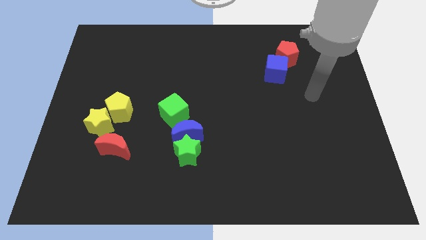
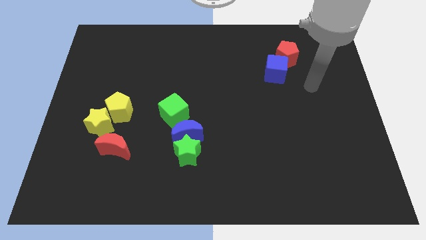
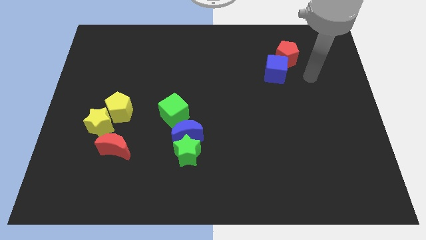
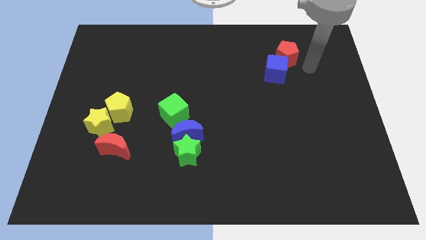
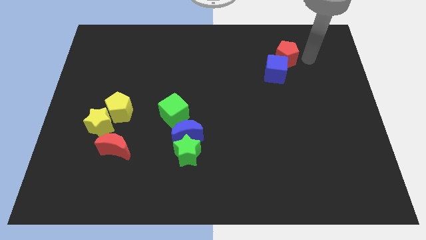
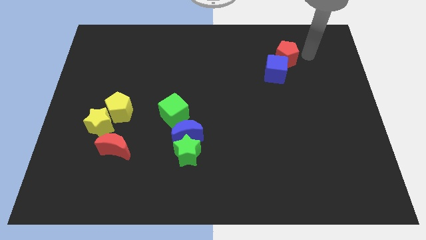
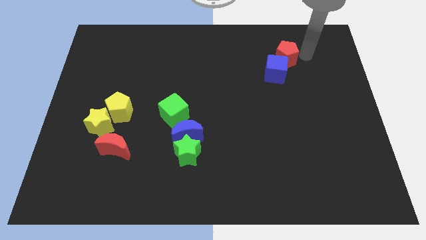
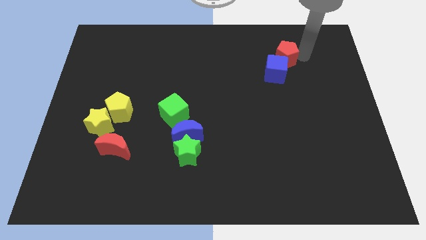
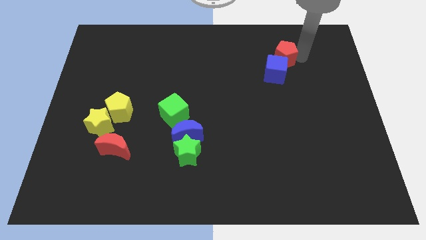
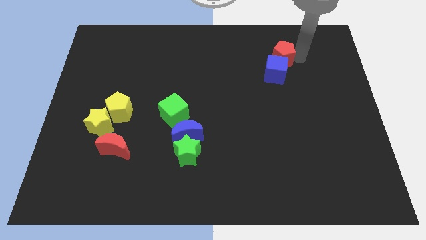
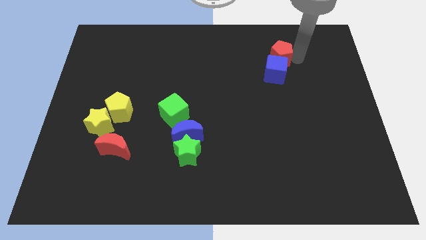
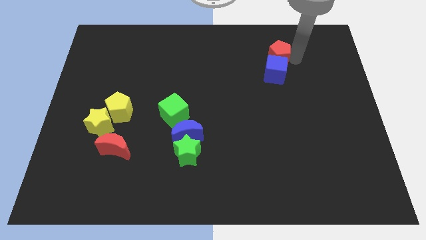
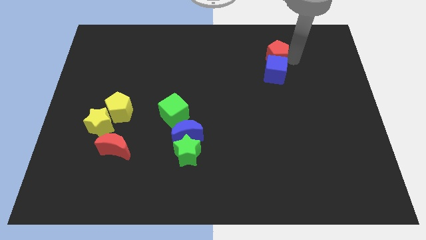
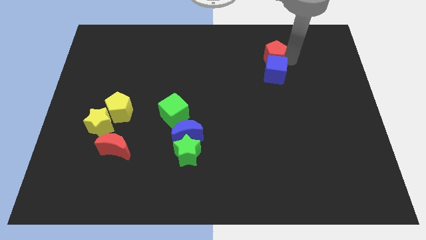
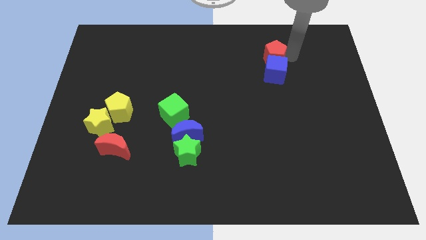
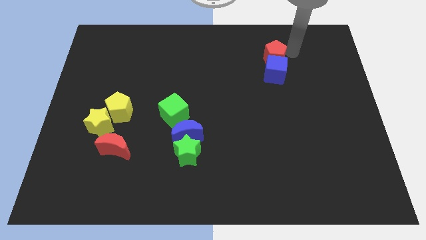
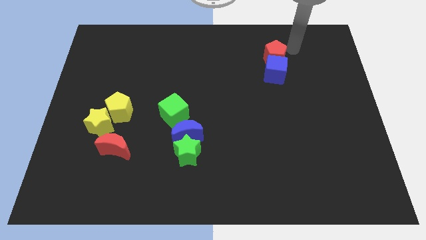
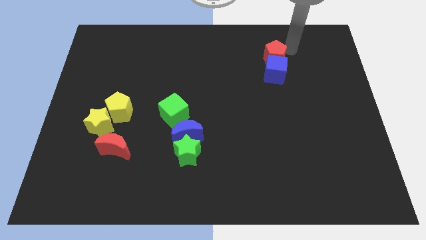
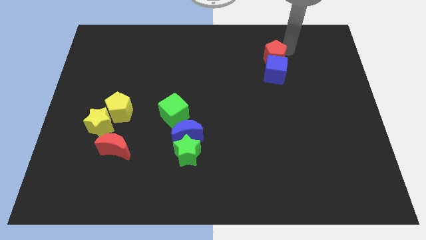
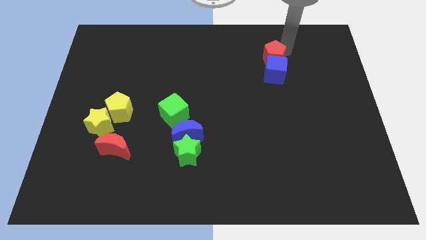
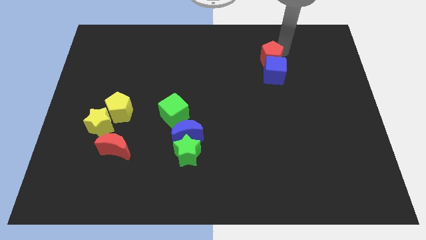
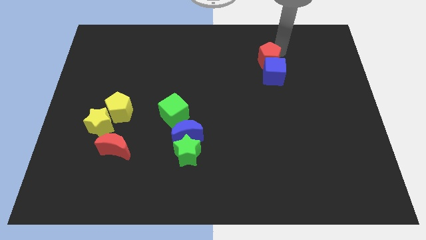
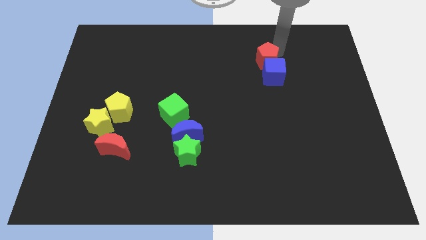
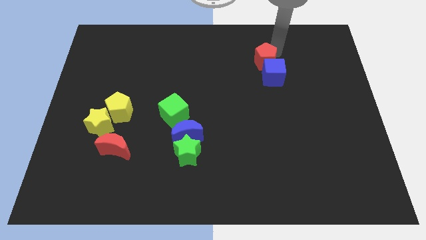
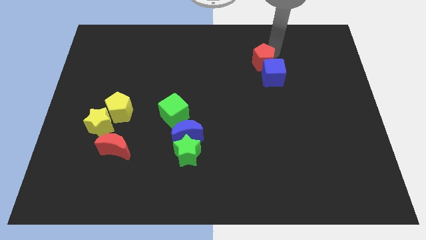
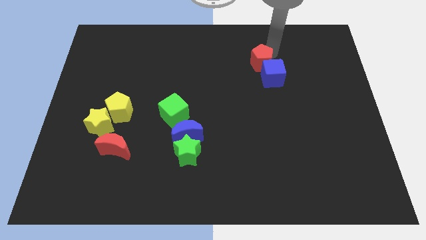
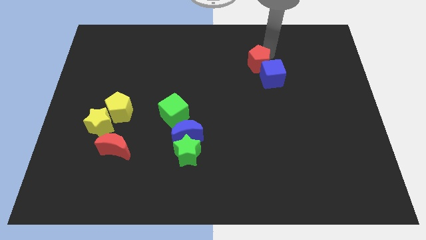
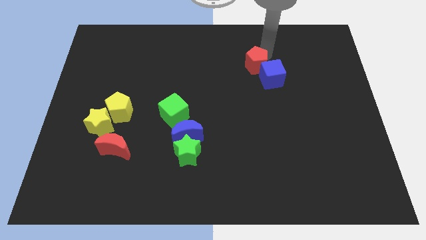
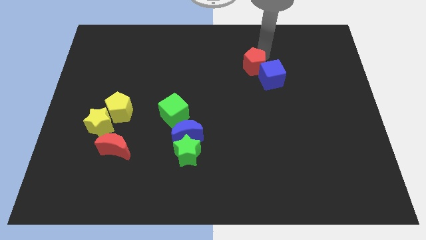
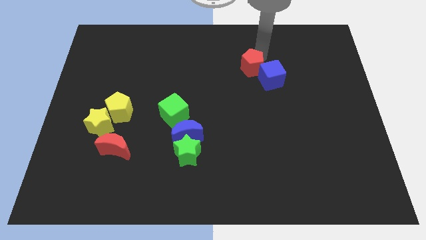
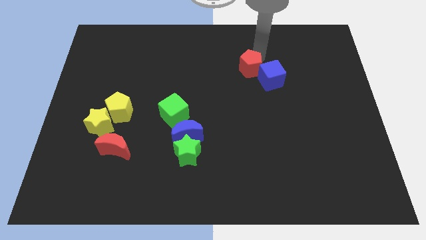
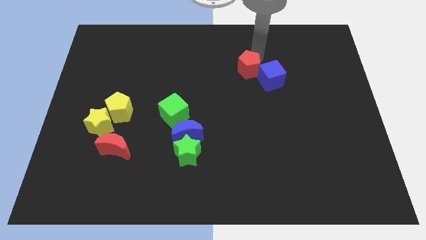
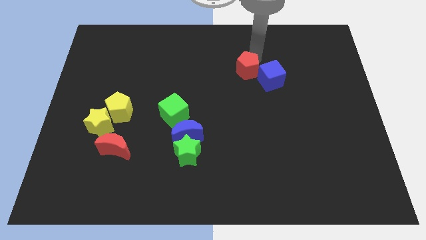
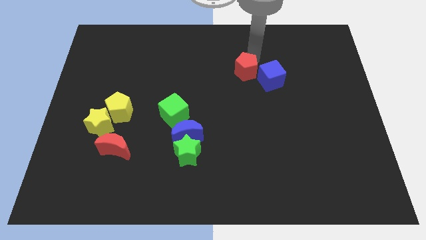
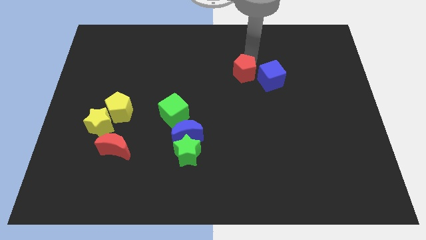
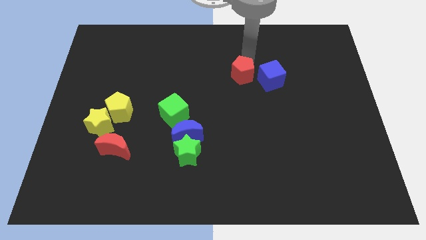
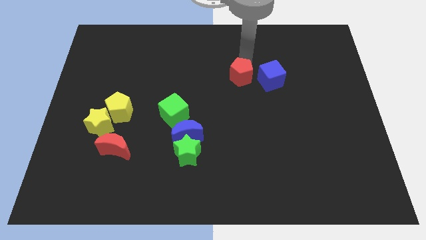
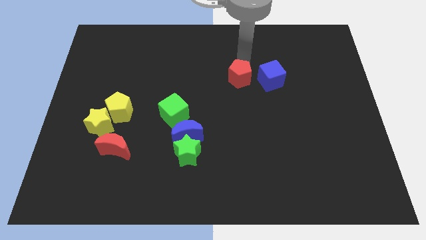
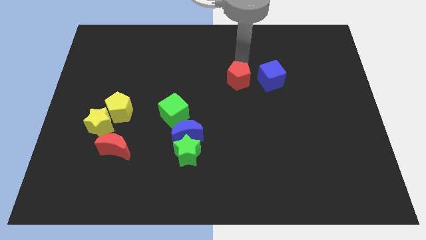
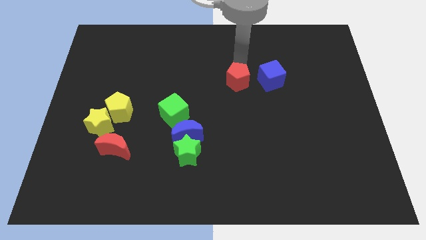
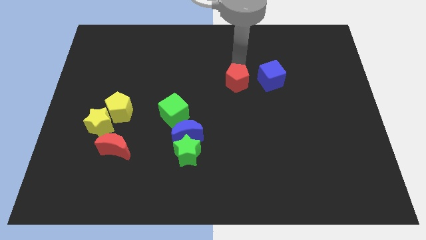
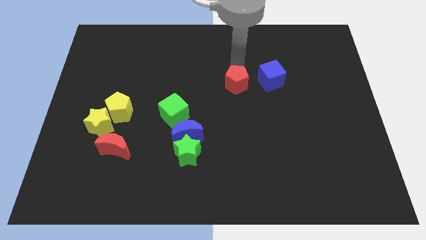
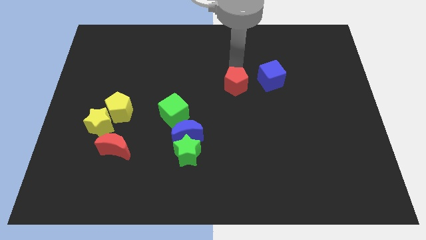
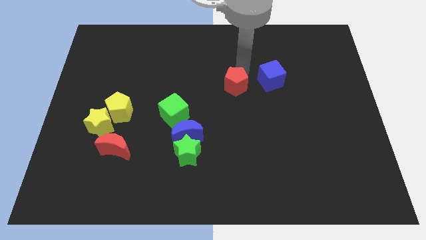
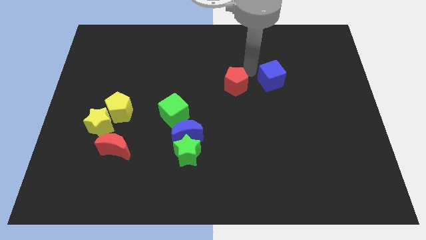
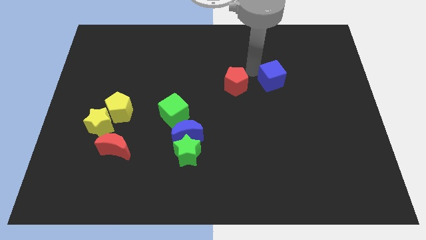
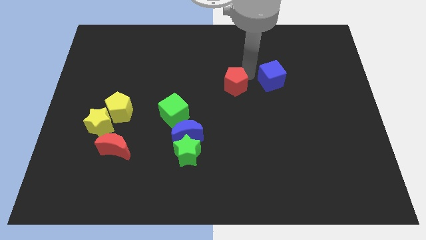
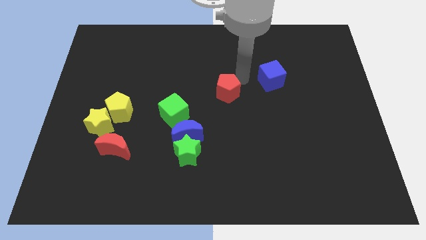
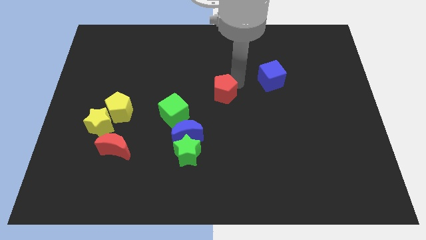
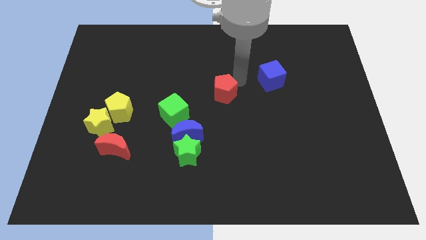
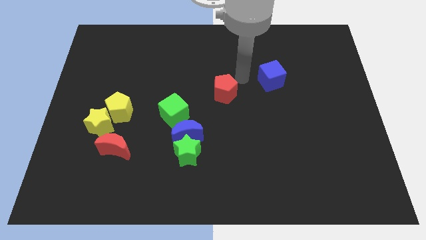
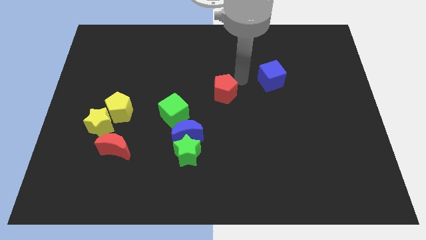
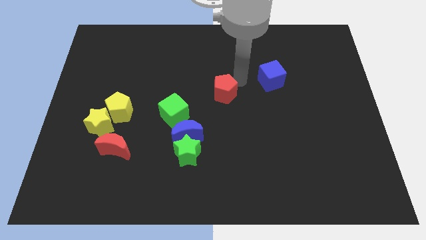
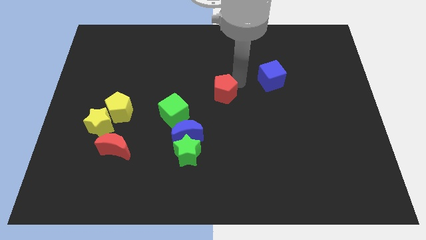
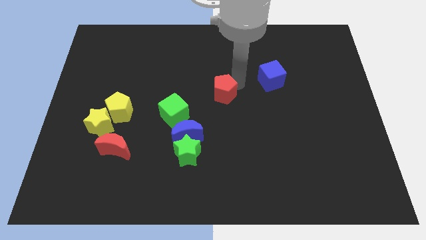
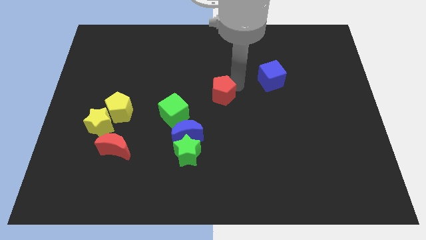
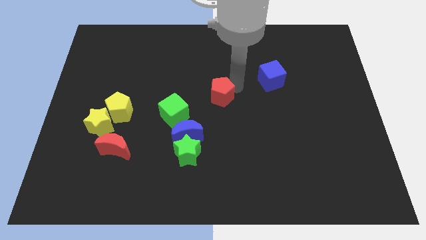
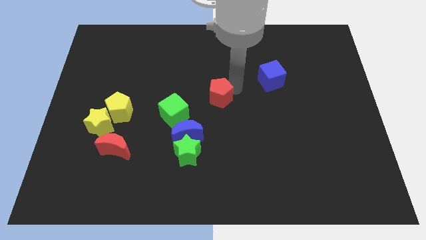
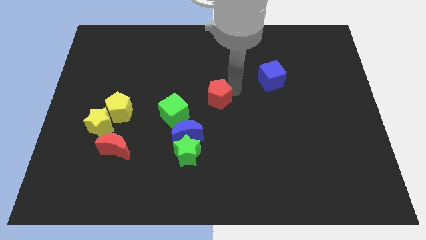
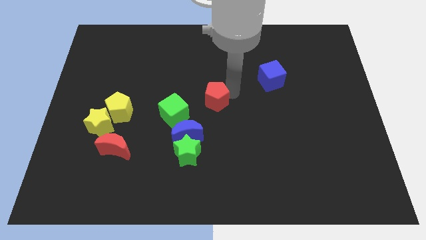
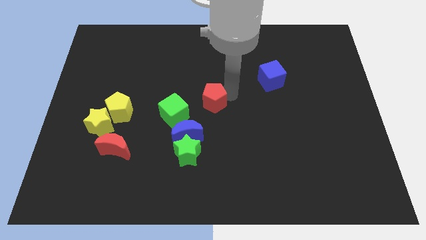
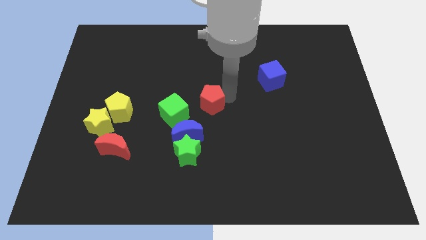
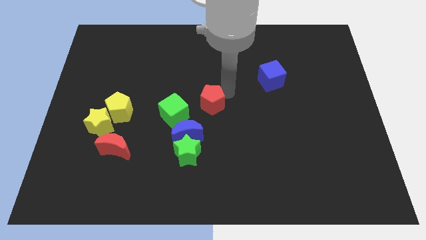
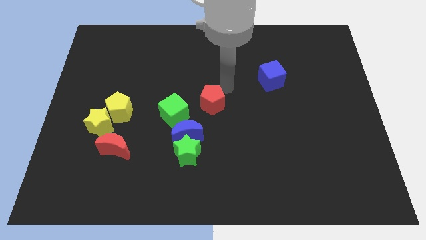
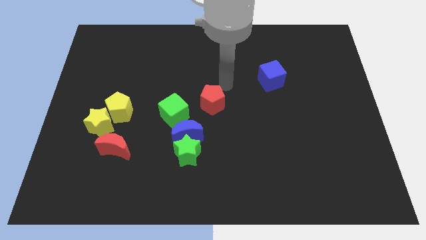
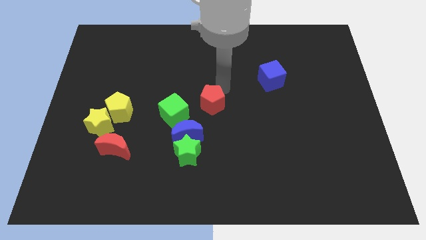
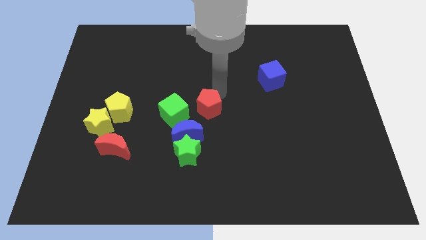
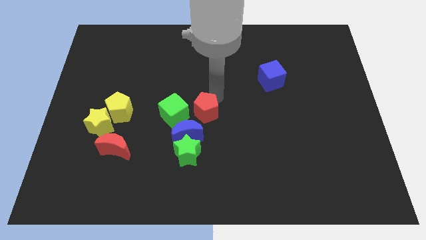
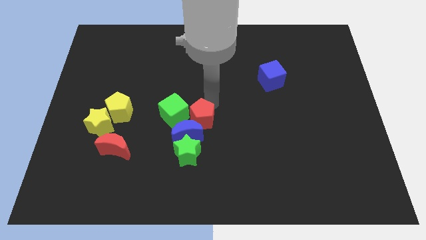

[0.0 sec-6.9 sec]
push the red pentagon to the blue moon
